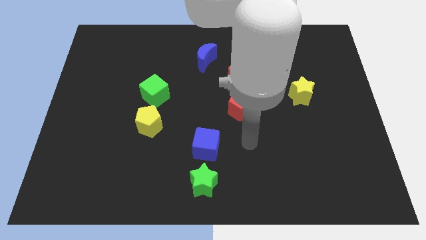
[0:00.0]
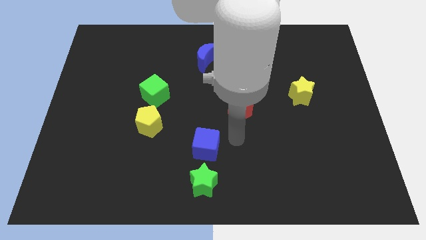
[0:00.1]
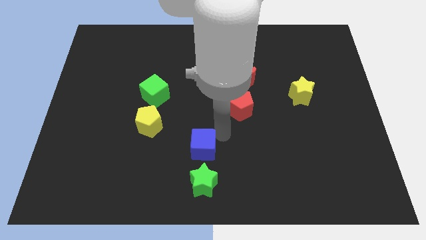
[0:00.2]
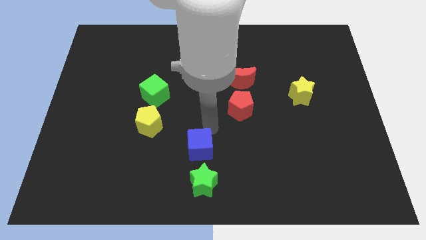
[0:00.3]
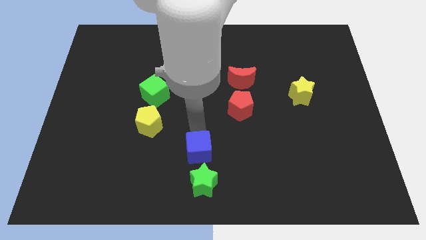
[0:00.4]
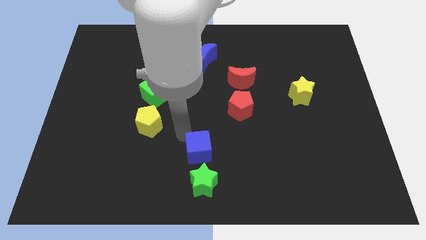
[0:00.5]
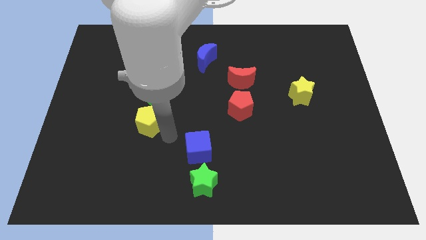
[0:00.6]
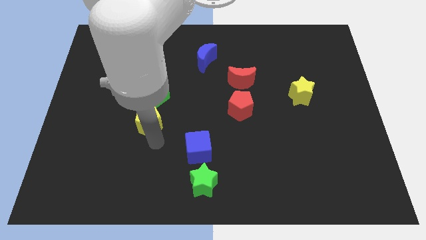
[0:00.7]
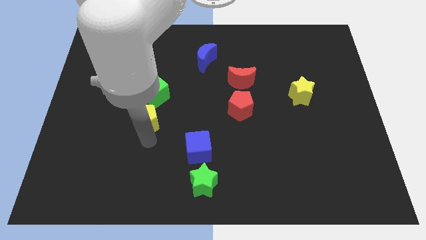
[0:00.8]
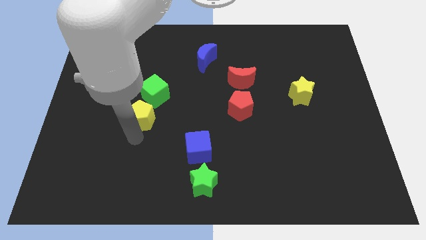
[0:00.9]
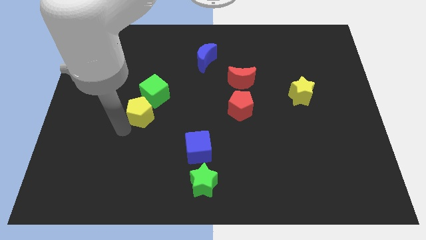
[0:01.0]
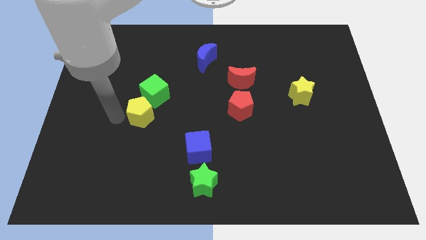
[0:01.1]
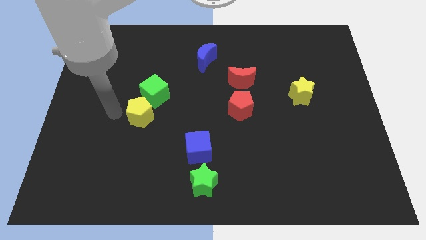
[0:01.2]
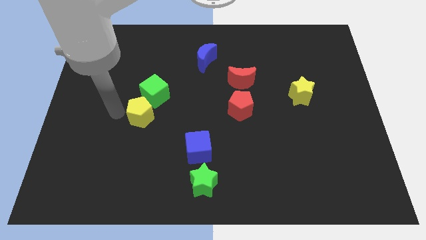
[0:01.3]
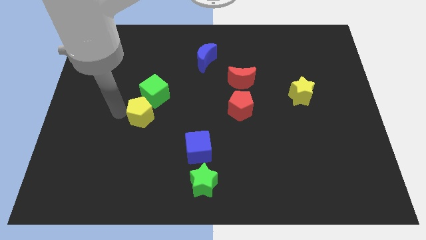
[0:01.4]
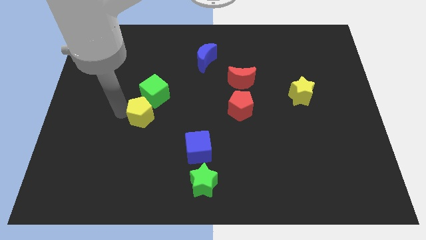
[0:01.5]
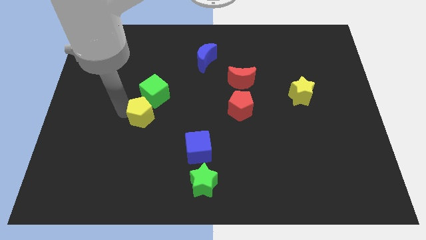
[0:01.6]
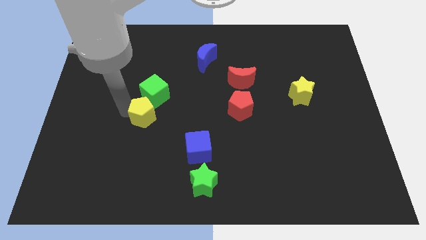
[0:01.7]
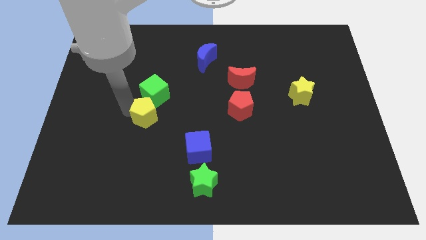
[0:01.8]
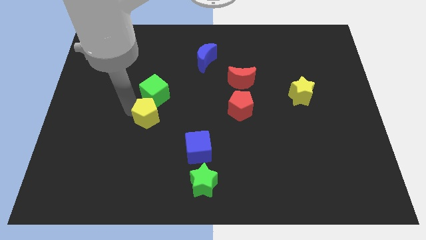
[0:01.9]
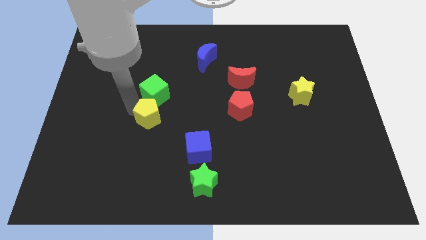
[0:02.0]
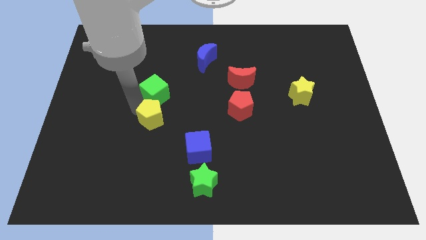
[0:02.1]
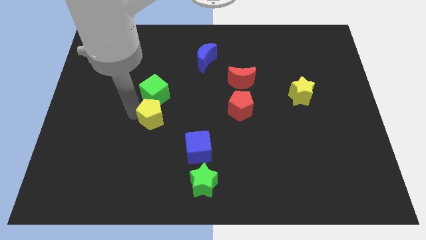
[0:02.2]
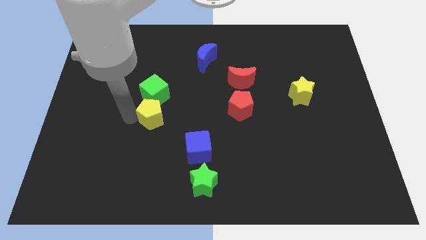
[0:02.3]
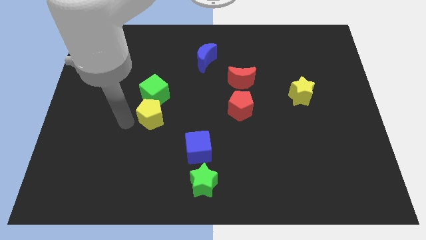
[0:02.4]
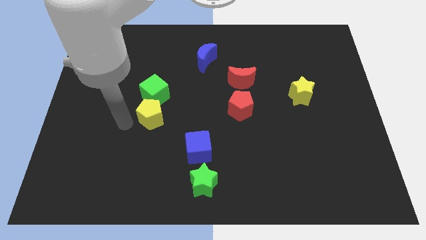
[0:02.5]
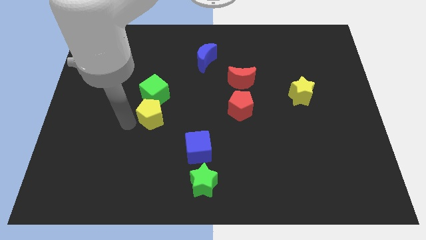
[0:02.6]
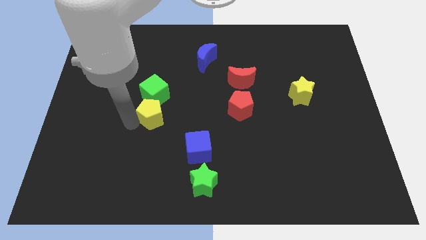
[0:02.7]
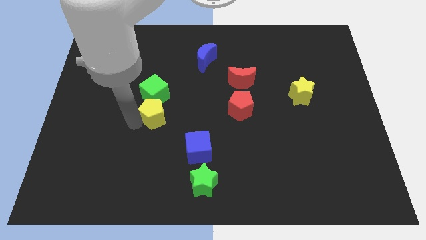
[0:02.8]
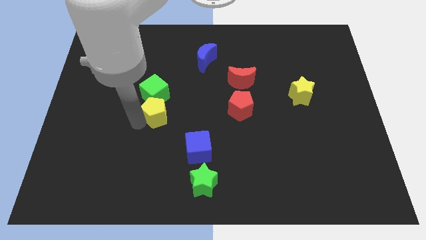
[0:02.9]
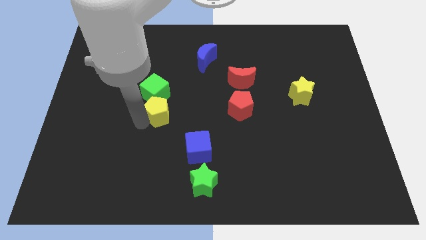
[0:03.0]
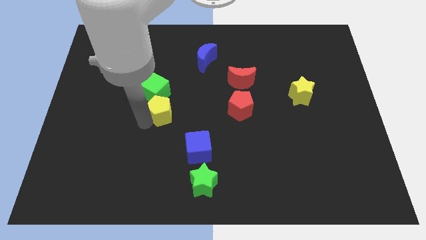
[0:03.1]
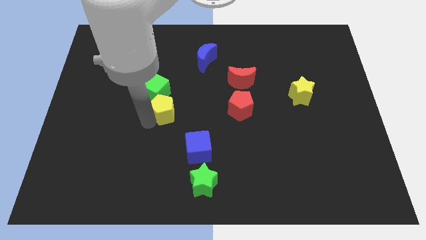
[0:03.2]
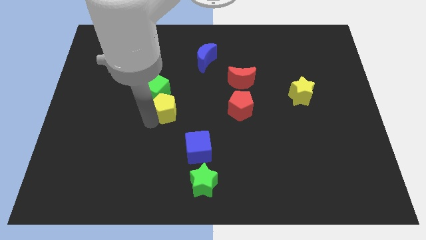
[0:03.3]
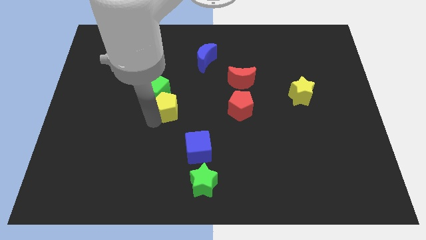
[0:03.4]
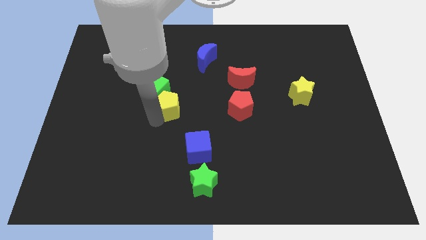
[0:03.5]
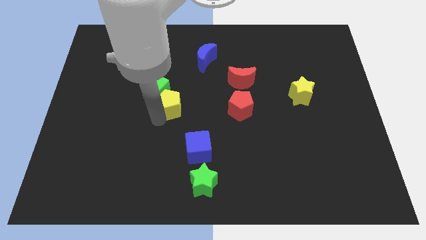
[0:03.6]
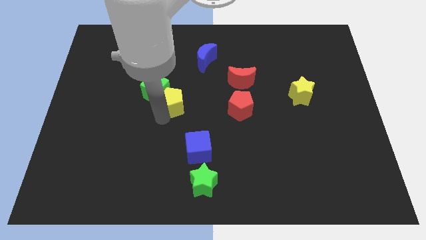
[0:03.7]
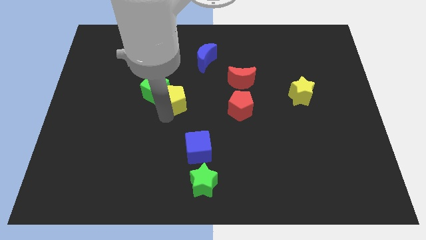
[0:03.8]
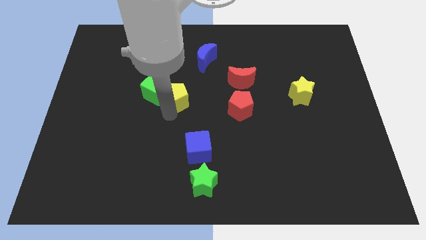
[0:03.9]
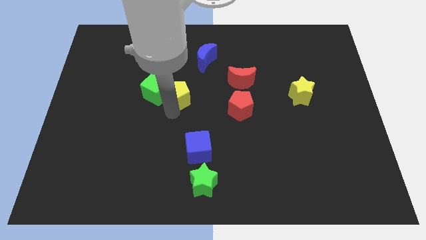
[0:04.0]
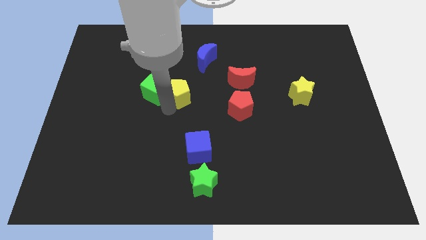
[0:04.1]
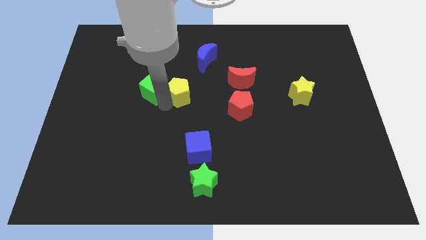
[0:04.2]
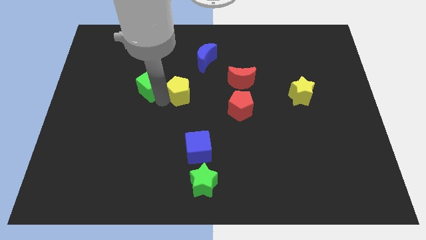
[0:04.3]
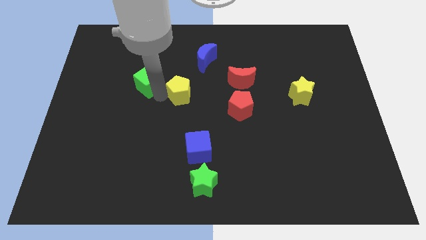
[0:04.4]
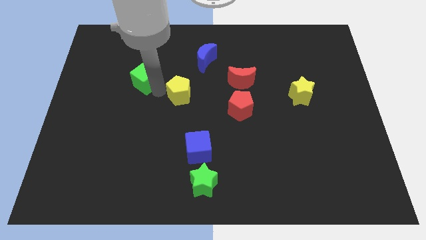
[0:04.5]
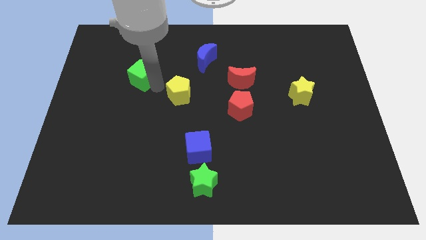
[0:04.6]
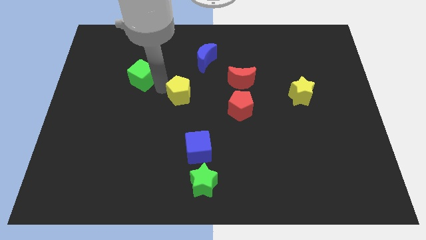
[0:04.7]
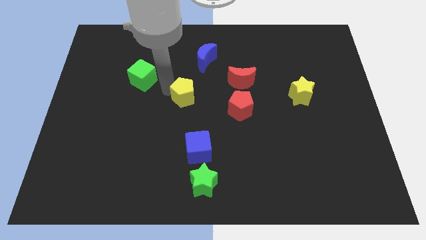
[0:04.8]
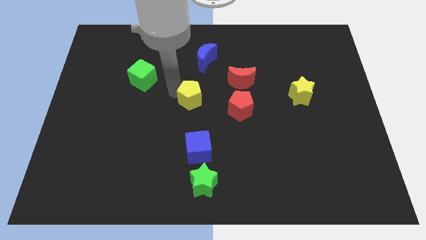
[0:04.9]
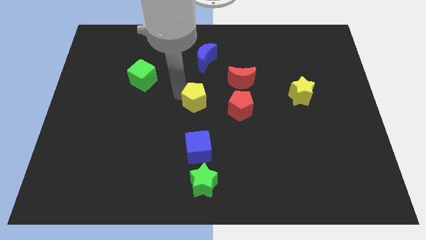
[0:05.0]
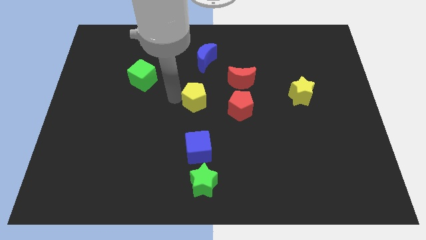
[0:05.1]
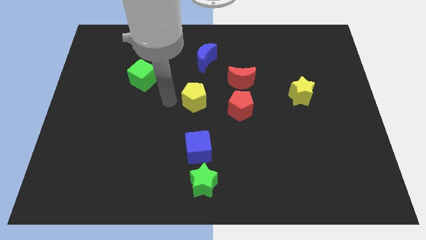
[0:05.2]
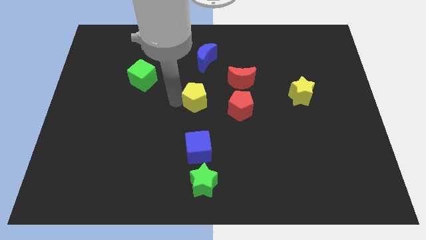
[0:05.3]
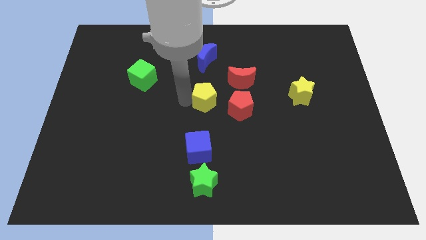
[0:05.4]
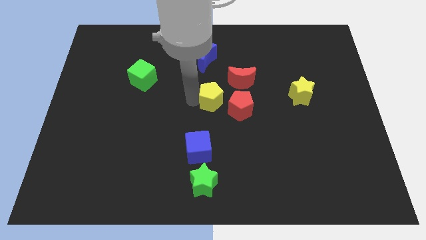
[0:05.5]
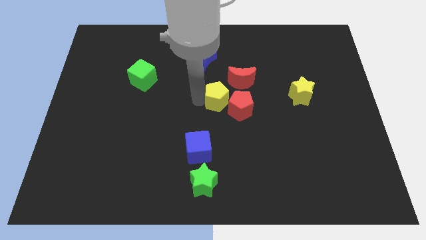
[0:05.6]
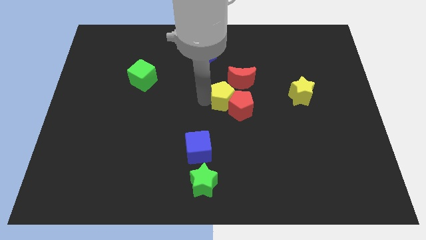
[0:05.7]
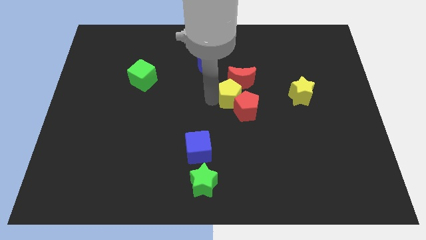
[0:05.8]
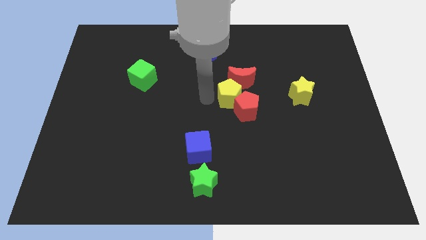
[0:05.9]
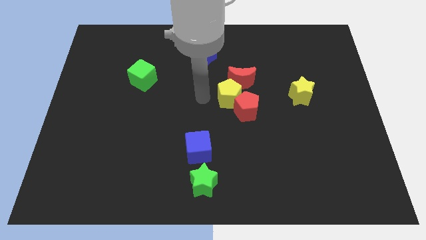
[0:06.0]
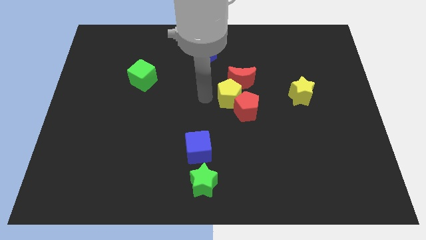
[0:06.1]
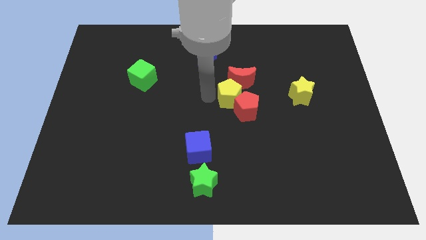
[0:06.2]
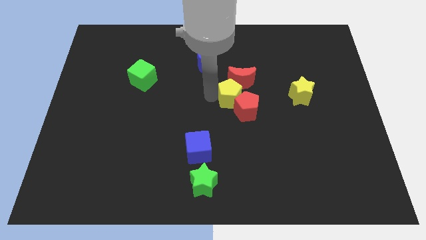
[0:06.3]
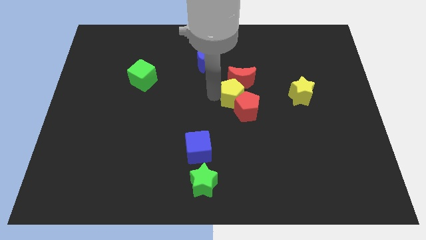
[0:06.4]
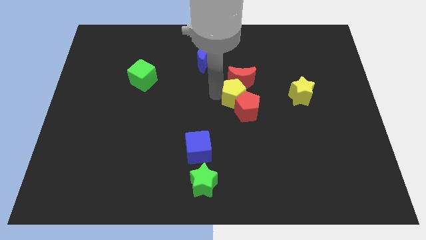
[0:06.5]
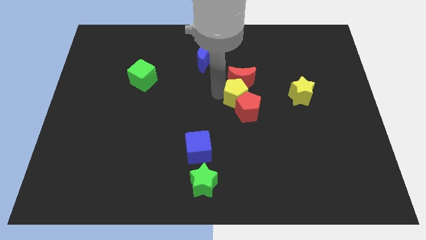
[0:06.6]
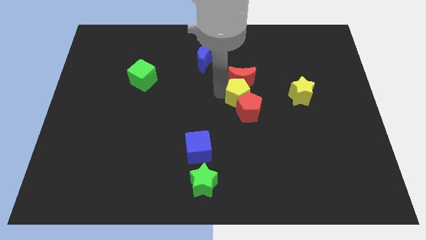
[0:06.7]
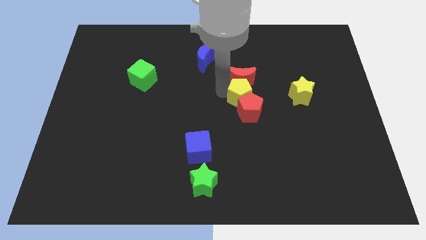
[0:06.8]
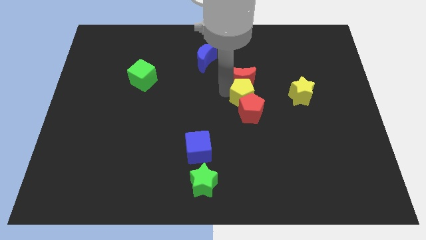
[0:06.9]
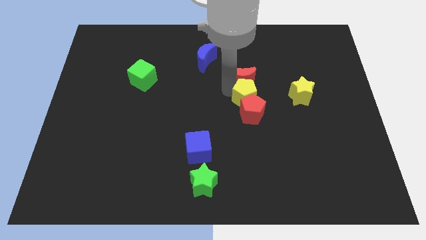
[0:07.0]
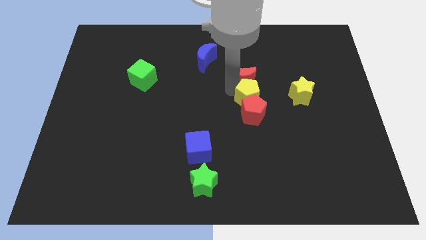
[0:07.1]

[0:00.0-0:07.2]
push the yellow pentagon to the right

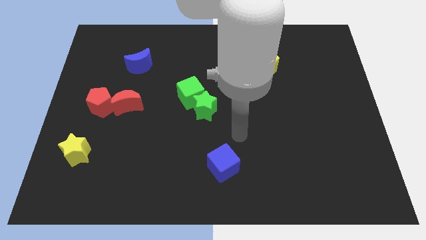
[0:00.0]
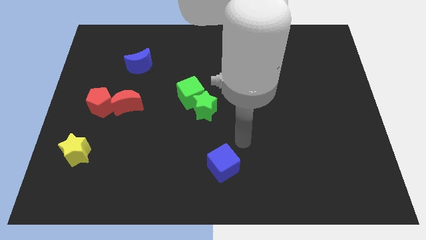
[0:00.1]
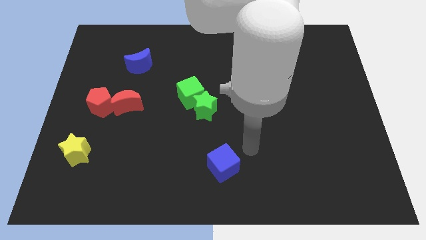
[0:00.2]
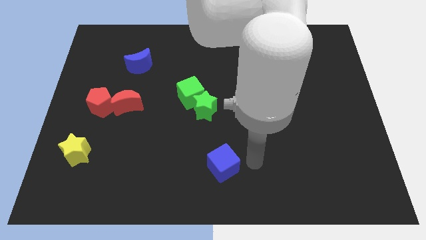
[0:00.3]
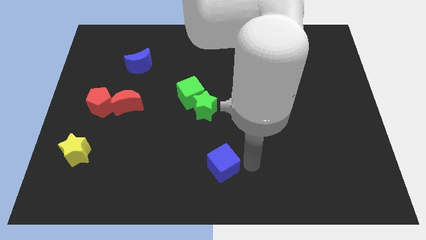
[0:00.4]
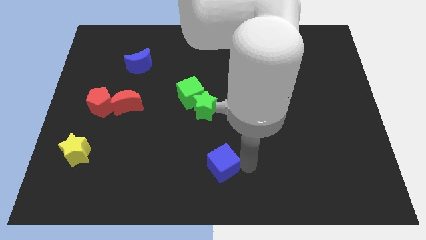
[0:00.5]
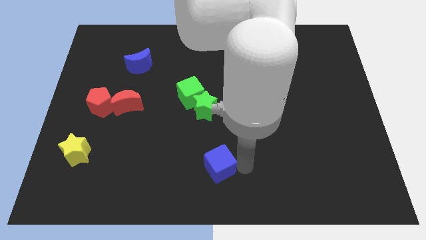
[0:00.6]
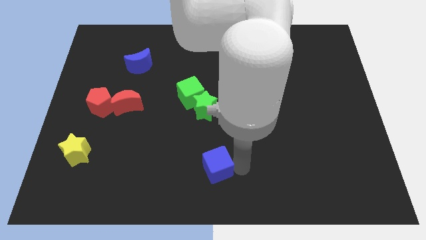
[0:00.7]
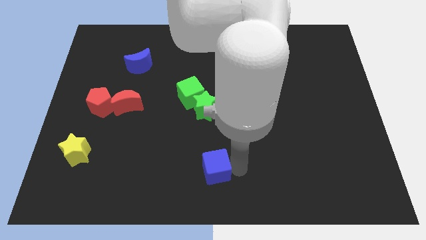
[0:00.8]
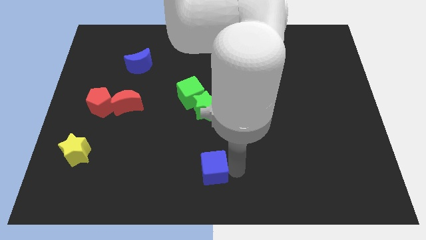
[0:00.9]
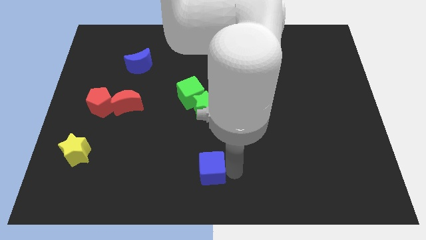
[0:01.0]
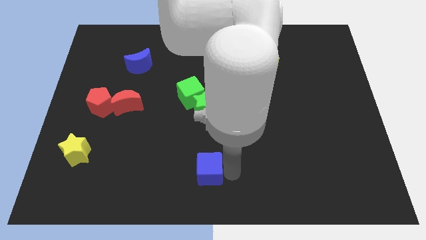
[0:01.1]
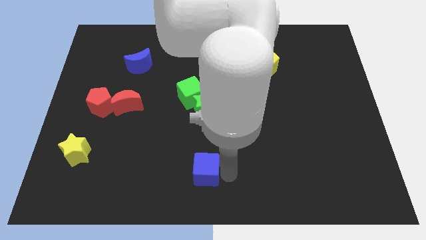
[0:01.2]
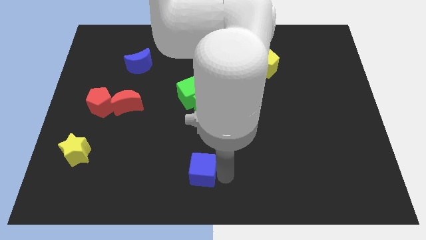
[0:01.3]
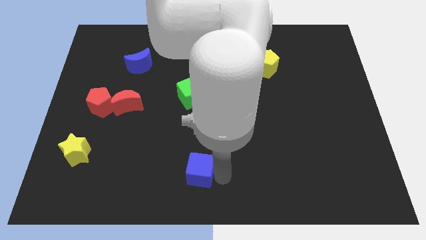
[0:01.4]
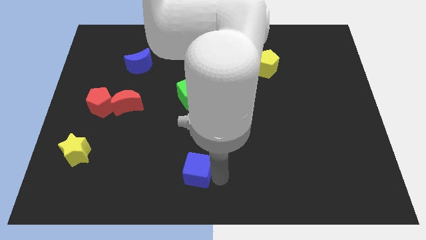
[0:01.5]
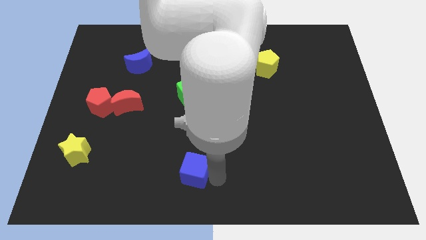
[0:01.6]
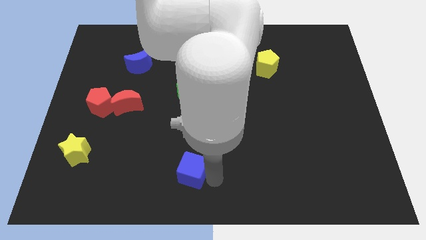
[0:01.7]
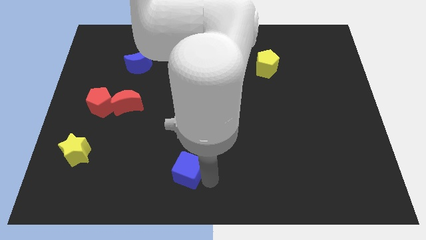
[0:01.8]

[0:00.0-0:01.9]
slightly move the blue cube to the left
